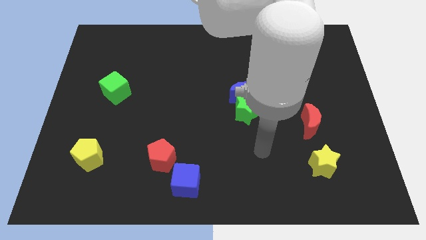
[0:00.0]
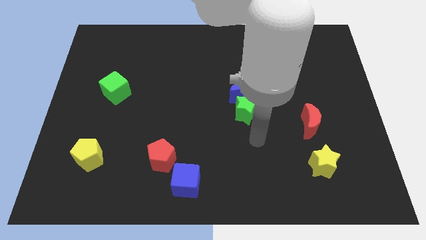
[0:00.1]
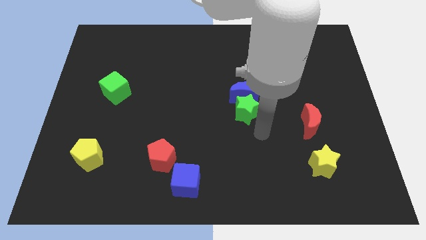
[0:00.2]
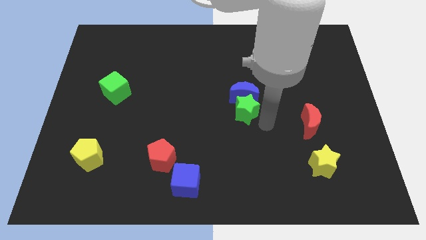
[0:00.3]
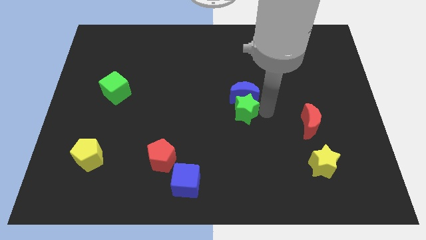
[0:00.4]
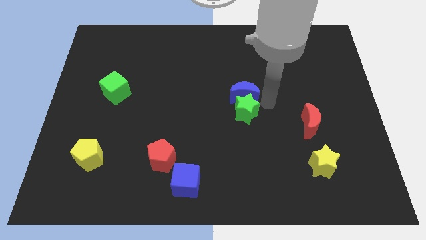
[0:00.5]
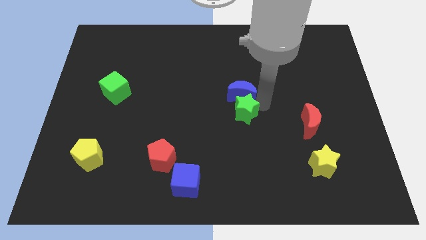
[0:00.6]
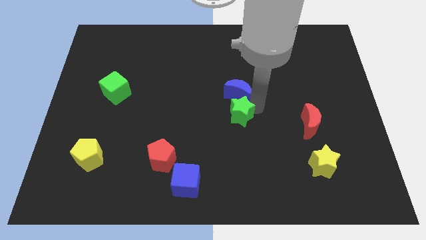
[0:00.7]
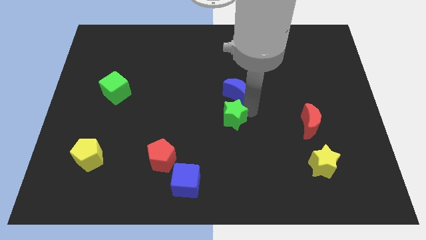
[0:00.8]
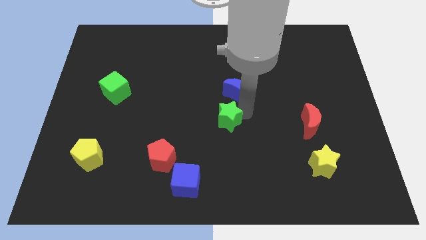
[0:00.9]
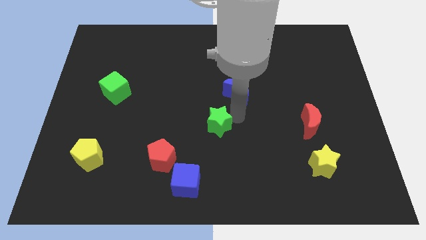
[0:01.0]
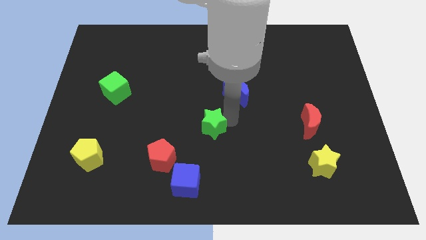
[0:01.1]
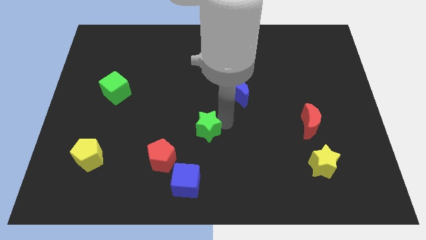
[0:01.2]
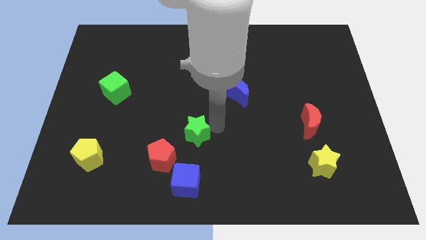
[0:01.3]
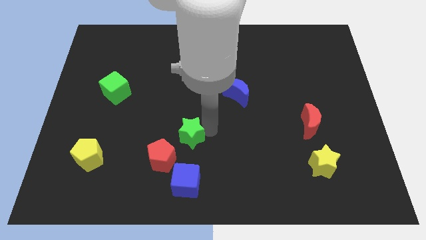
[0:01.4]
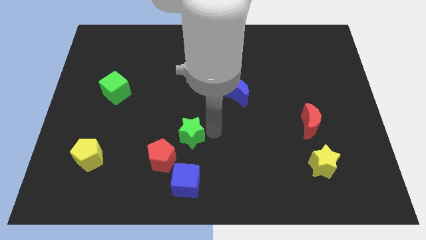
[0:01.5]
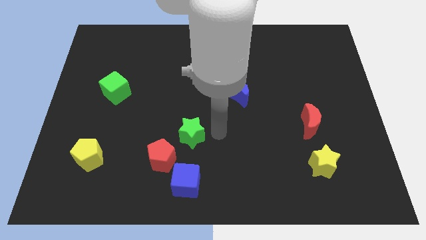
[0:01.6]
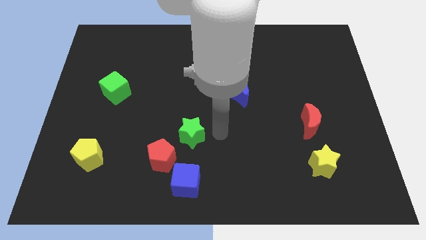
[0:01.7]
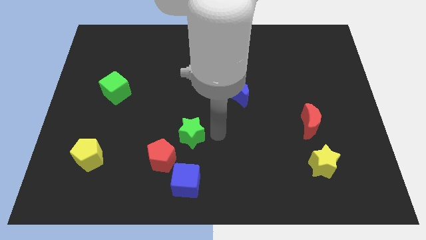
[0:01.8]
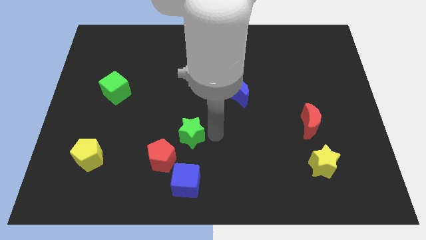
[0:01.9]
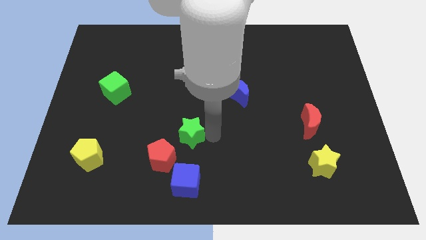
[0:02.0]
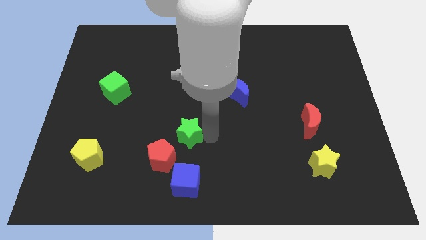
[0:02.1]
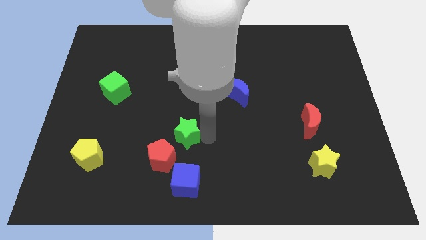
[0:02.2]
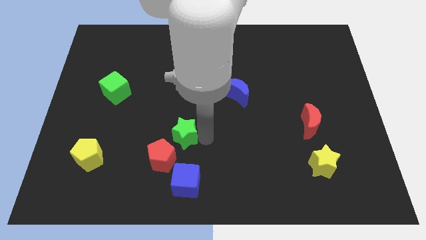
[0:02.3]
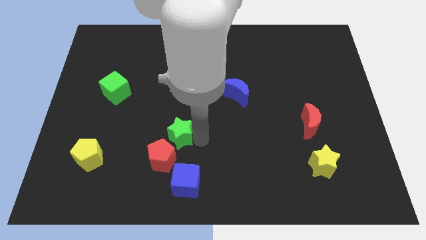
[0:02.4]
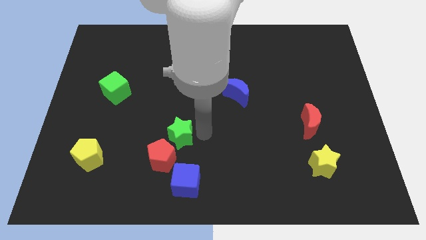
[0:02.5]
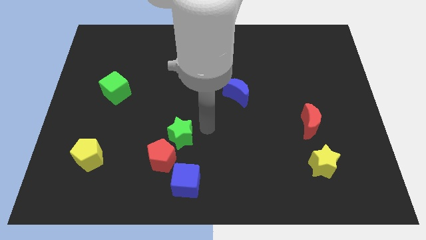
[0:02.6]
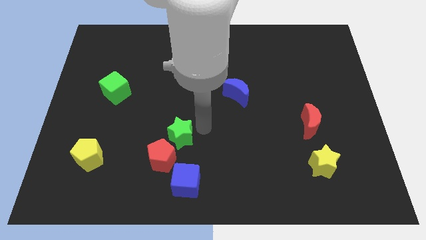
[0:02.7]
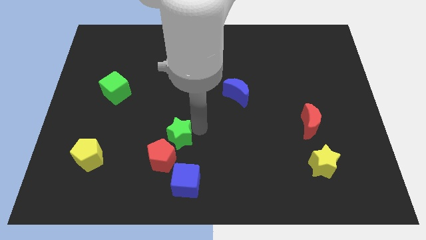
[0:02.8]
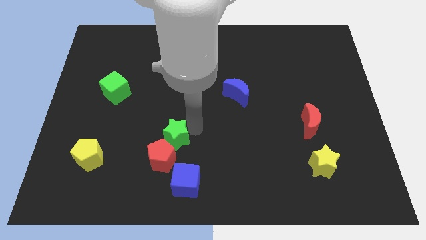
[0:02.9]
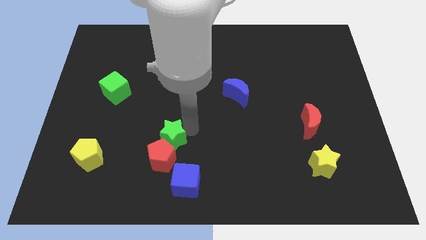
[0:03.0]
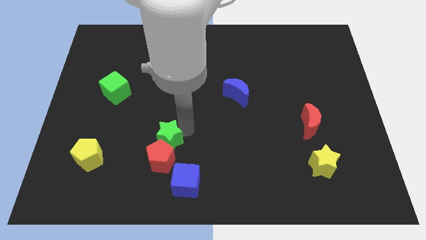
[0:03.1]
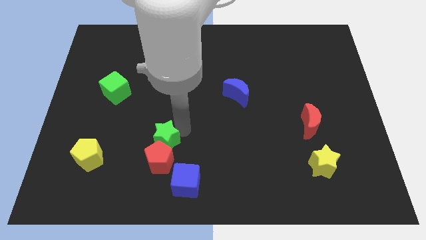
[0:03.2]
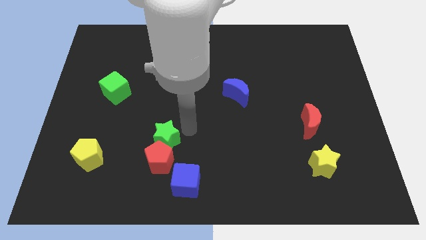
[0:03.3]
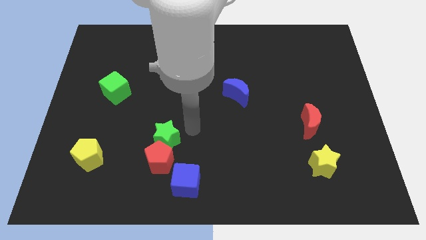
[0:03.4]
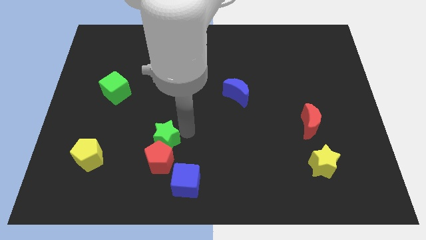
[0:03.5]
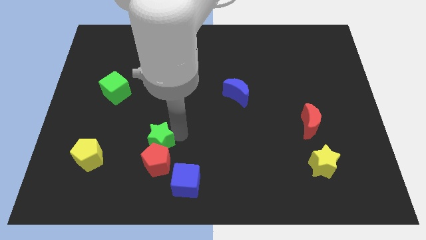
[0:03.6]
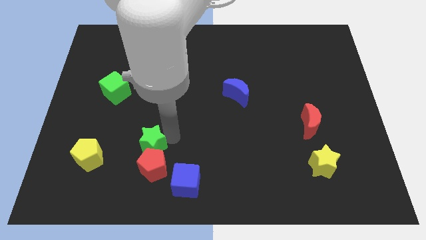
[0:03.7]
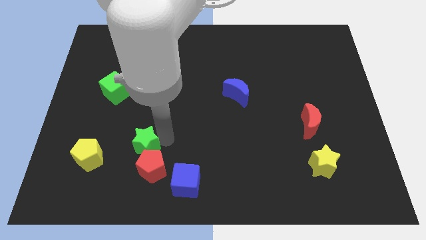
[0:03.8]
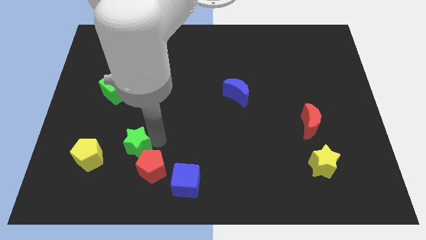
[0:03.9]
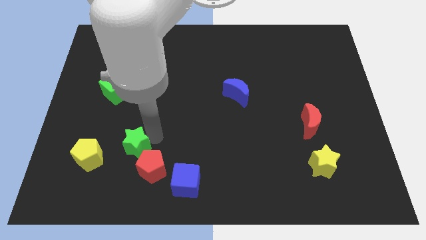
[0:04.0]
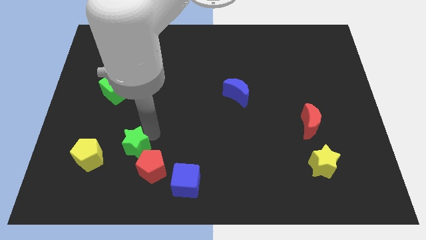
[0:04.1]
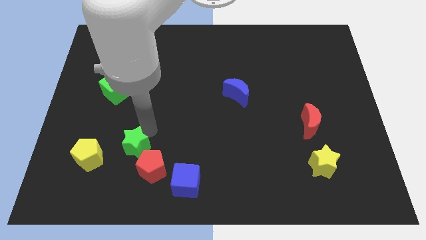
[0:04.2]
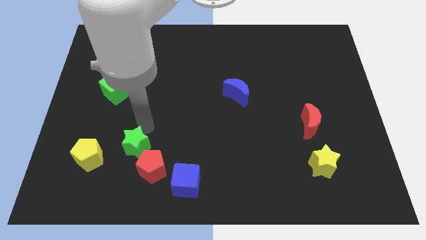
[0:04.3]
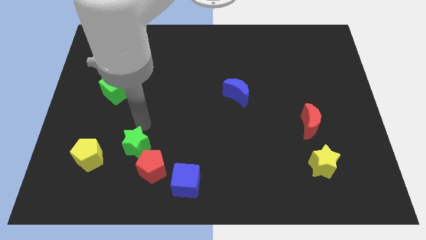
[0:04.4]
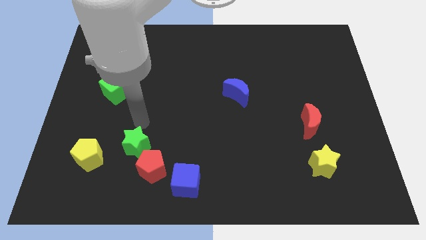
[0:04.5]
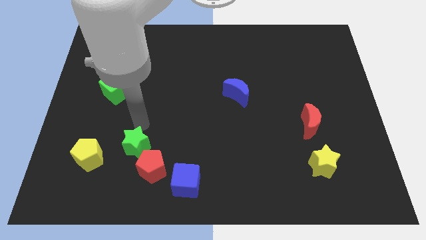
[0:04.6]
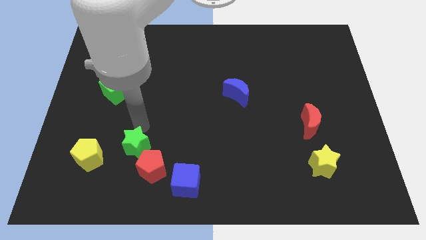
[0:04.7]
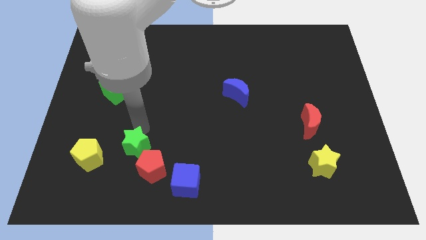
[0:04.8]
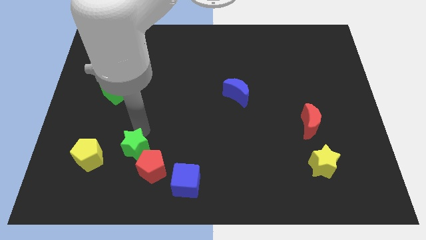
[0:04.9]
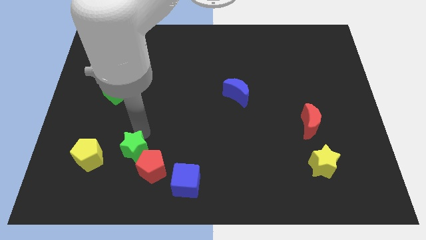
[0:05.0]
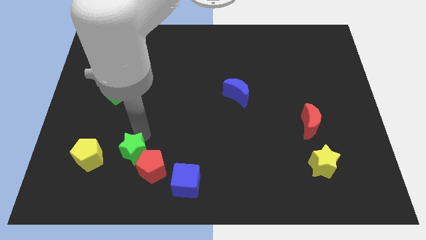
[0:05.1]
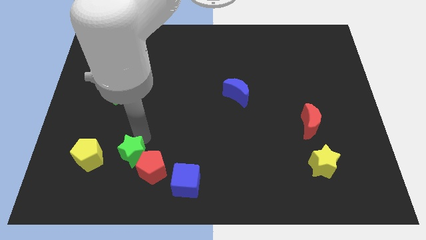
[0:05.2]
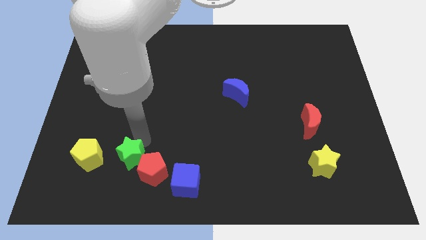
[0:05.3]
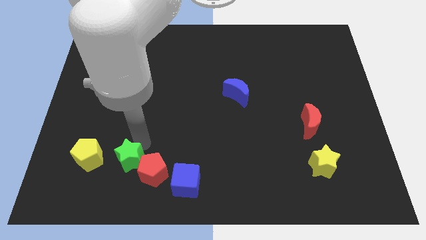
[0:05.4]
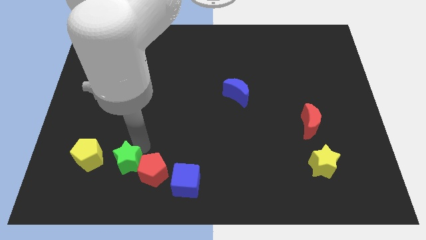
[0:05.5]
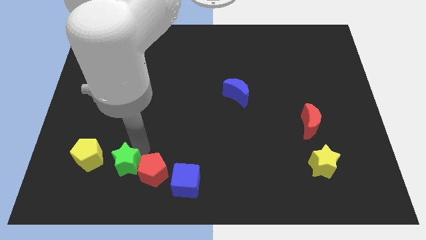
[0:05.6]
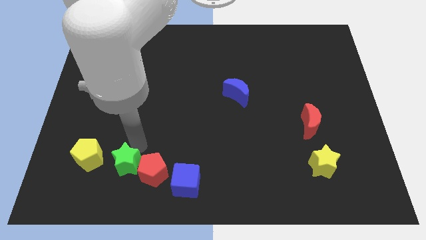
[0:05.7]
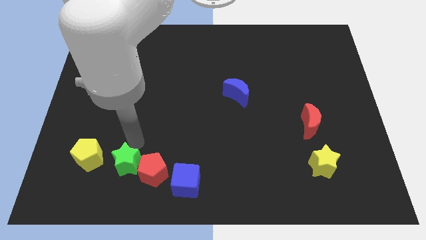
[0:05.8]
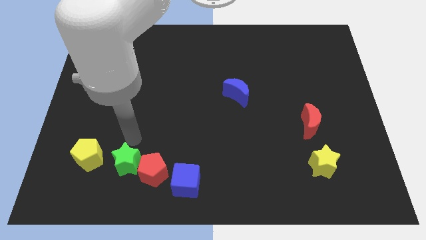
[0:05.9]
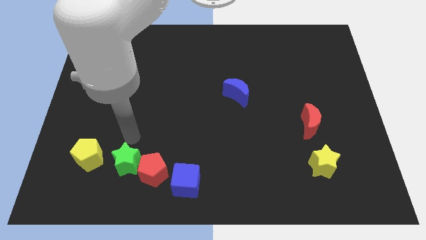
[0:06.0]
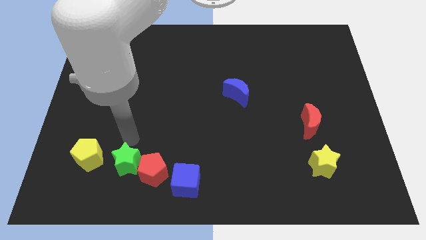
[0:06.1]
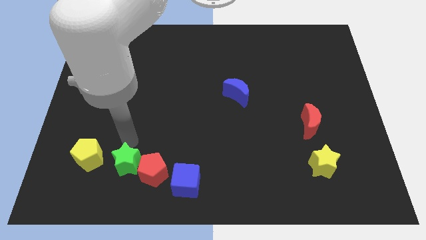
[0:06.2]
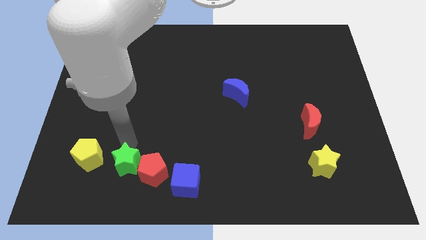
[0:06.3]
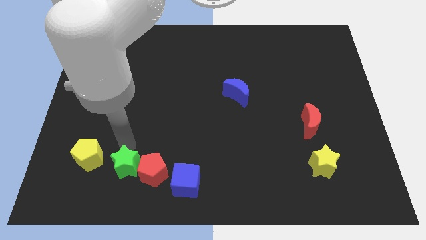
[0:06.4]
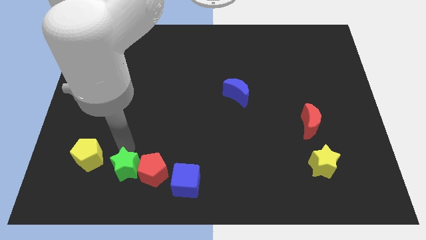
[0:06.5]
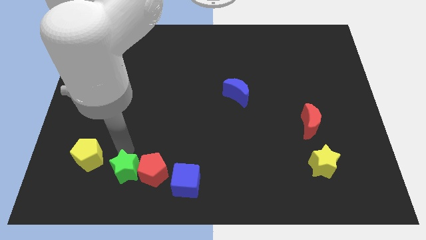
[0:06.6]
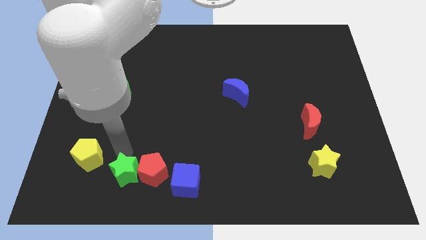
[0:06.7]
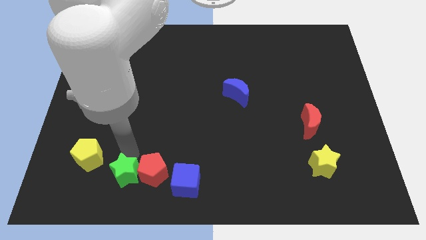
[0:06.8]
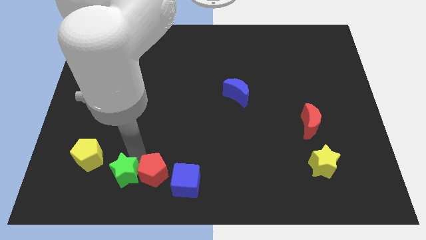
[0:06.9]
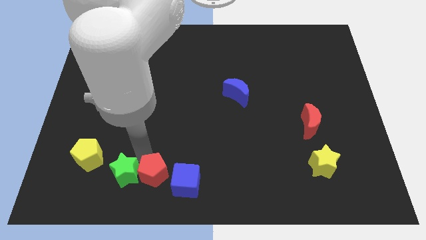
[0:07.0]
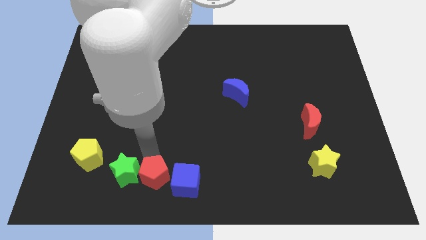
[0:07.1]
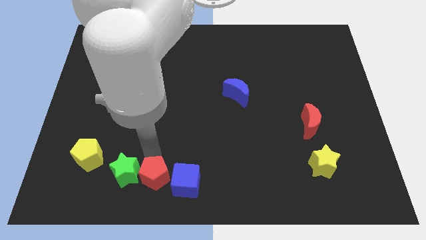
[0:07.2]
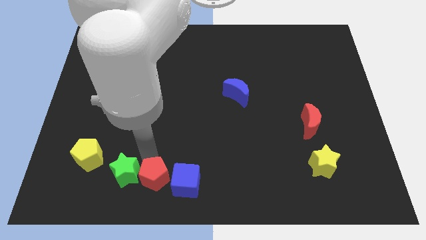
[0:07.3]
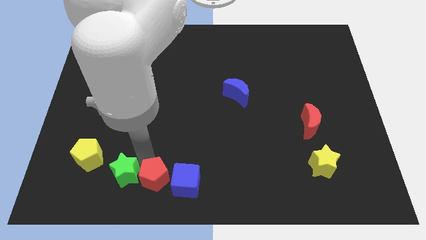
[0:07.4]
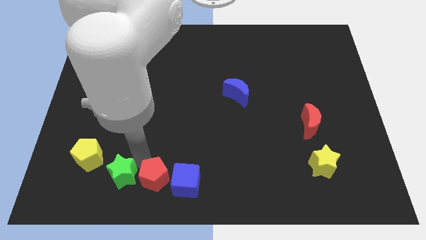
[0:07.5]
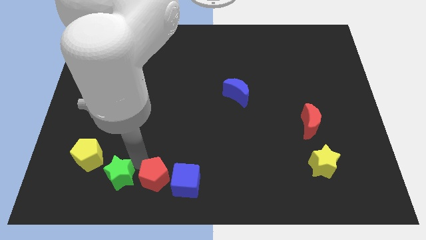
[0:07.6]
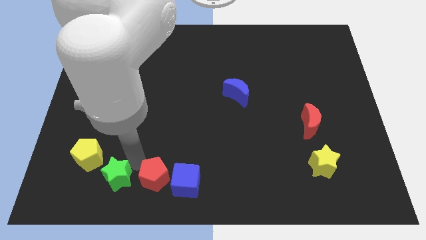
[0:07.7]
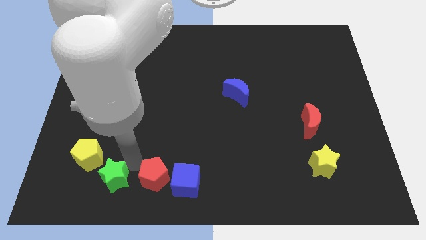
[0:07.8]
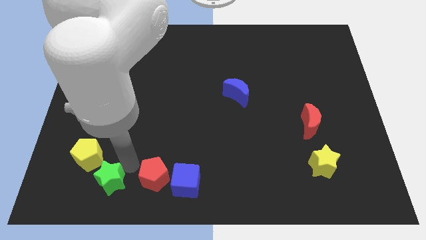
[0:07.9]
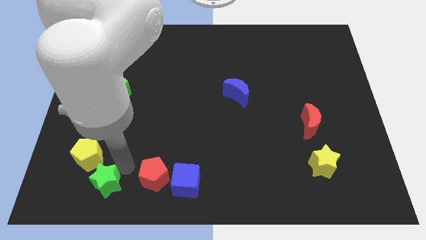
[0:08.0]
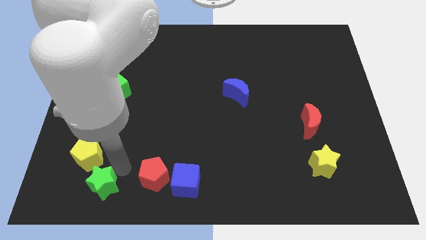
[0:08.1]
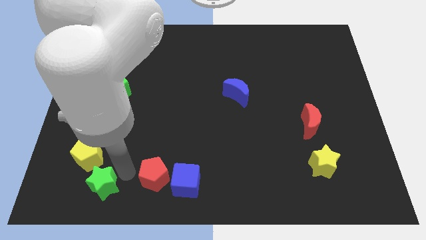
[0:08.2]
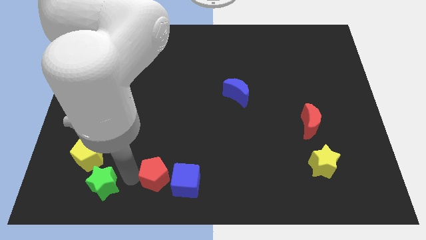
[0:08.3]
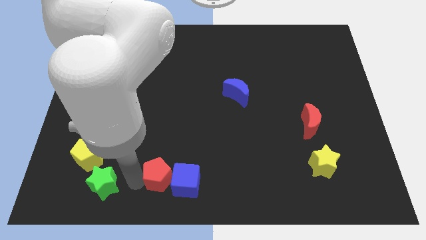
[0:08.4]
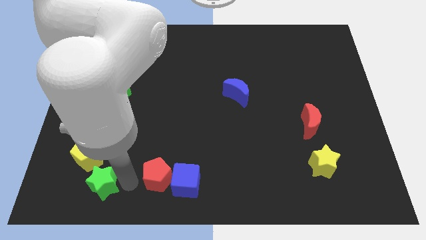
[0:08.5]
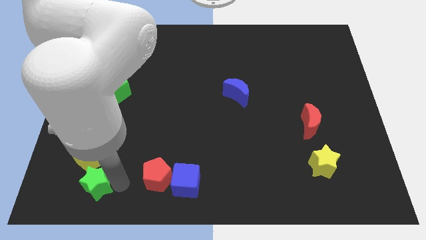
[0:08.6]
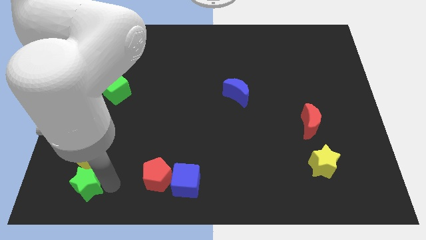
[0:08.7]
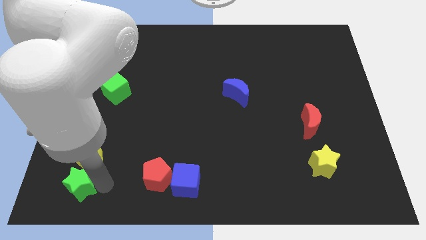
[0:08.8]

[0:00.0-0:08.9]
slide the green star to the bottom left of the board
